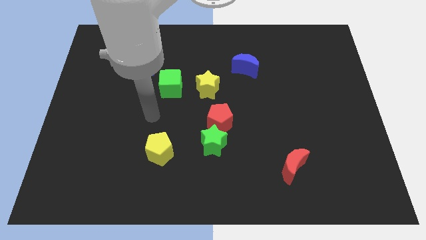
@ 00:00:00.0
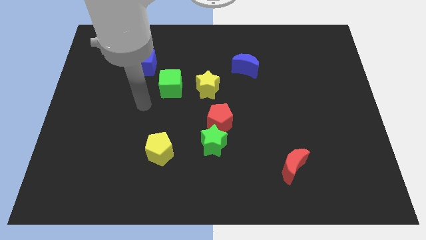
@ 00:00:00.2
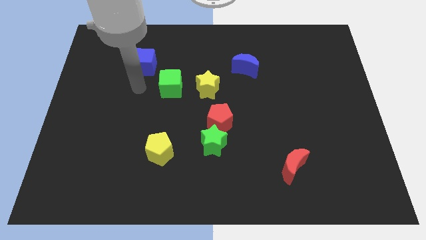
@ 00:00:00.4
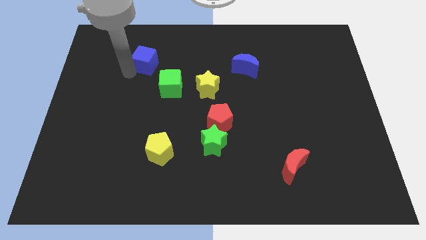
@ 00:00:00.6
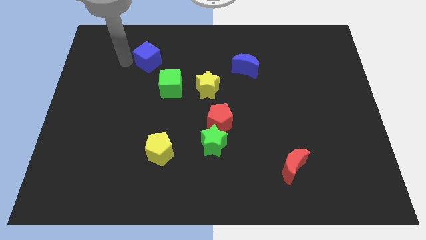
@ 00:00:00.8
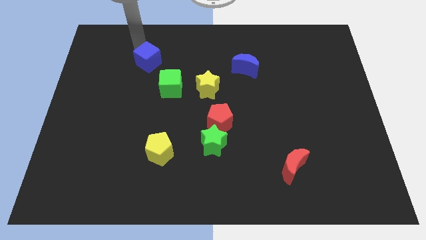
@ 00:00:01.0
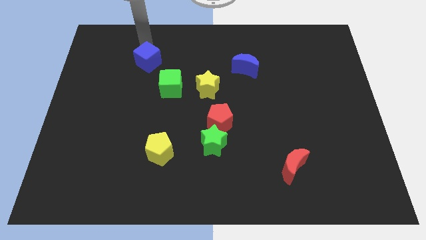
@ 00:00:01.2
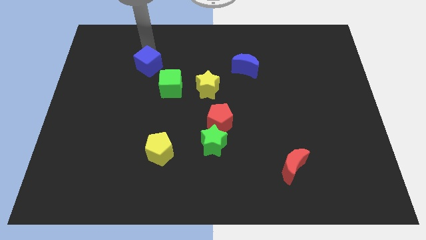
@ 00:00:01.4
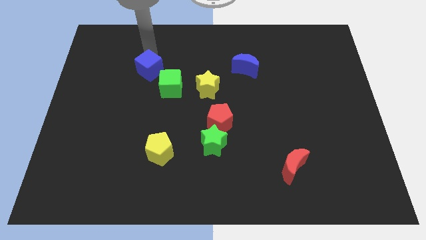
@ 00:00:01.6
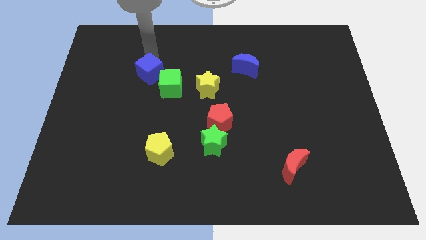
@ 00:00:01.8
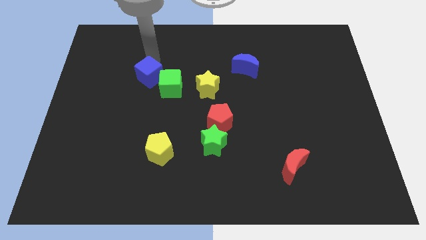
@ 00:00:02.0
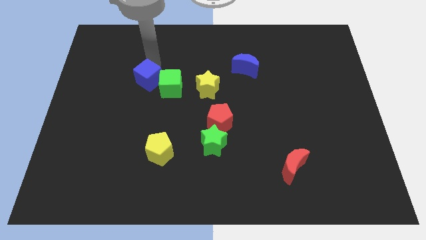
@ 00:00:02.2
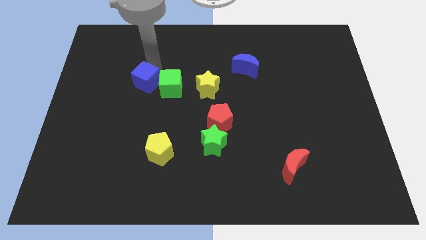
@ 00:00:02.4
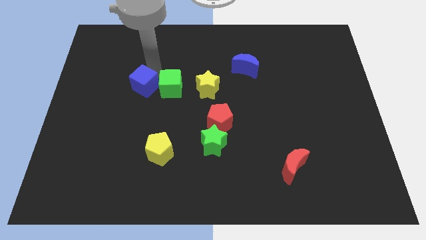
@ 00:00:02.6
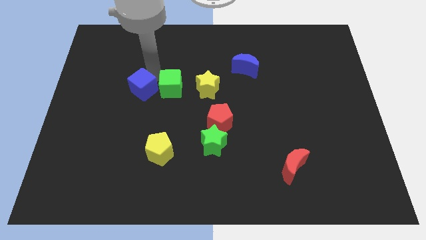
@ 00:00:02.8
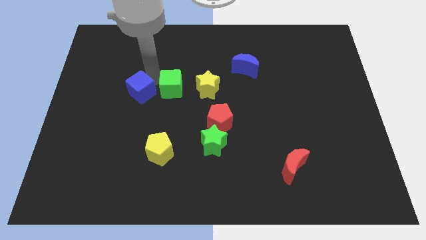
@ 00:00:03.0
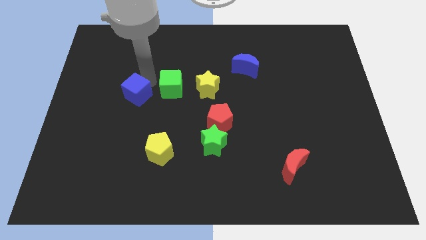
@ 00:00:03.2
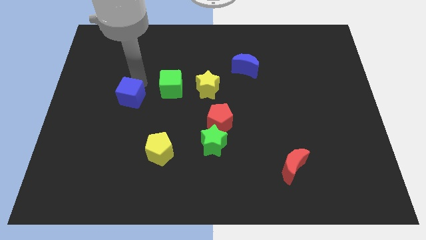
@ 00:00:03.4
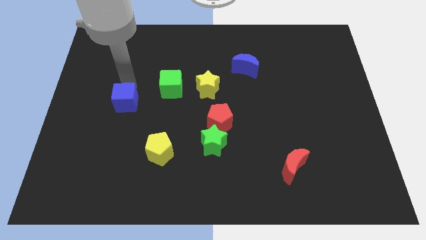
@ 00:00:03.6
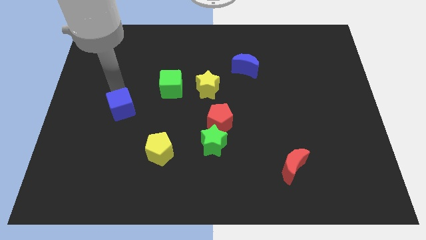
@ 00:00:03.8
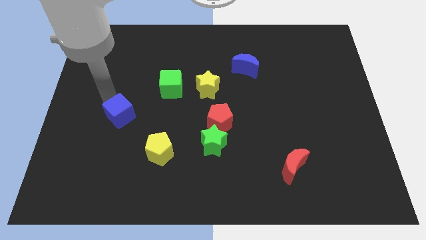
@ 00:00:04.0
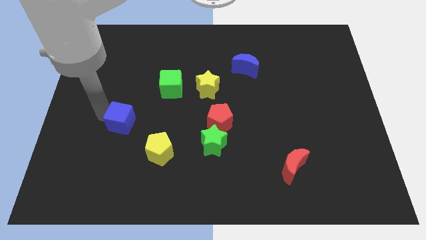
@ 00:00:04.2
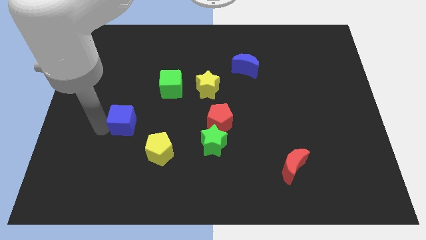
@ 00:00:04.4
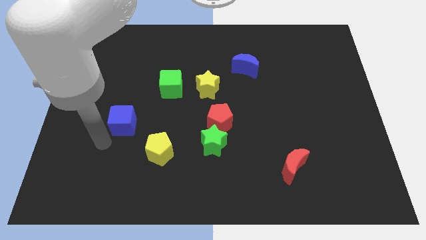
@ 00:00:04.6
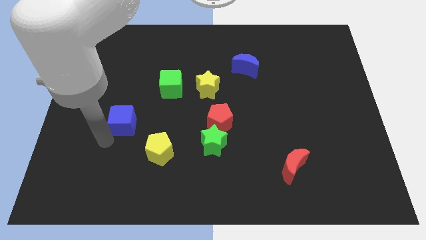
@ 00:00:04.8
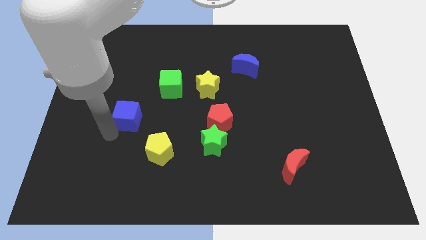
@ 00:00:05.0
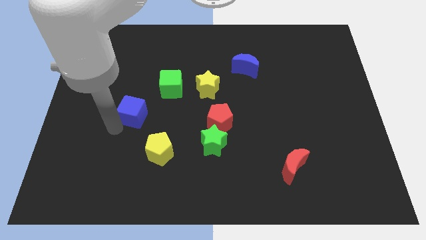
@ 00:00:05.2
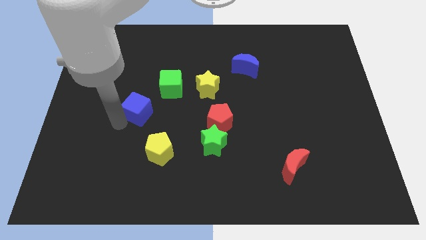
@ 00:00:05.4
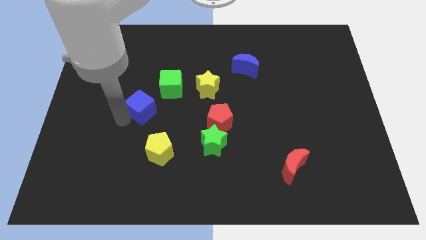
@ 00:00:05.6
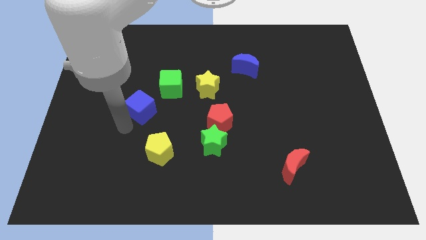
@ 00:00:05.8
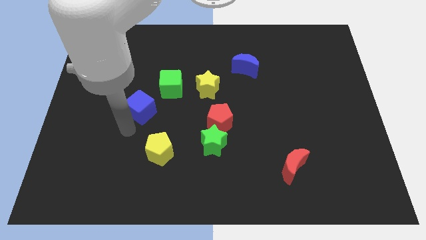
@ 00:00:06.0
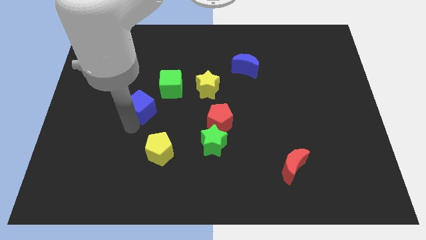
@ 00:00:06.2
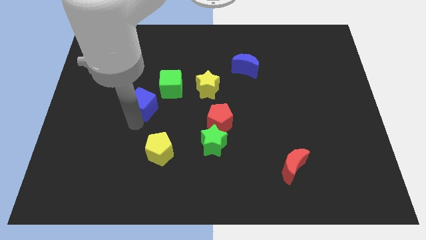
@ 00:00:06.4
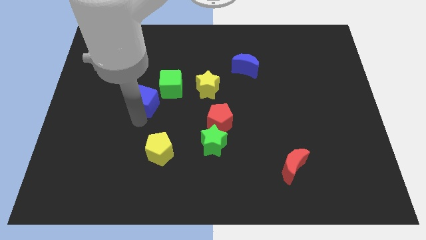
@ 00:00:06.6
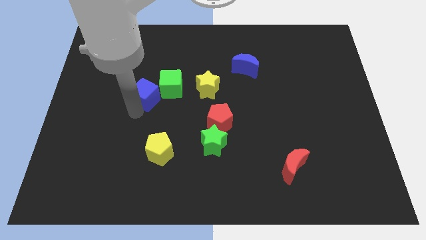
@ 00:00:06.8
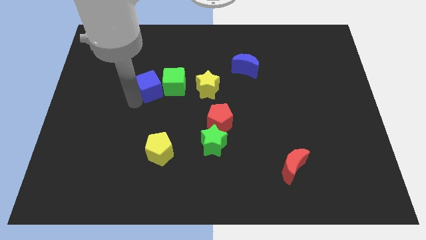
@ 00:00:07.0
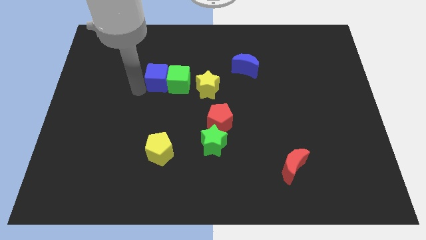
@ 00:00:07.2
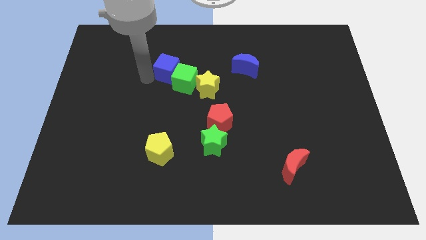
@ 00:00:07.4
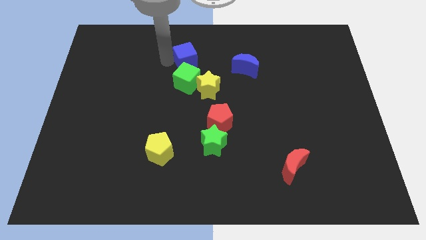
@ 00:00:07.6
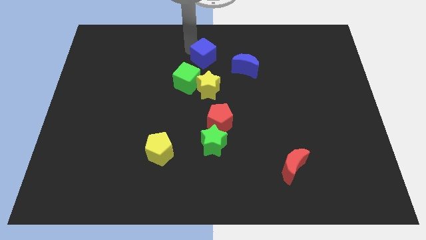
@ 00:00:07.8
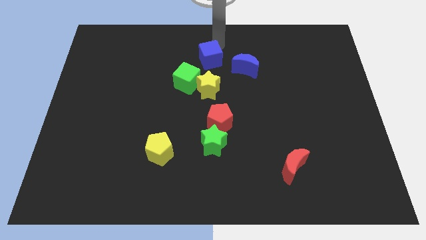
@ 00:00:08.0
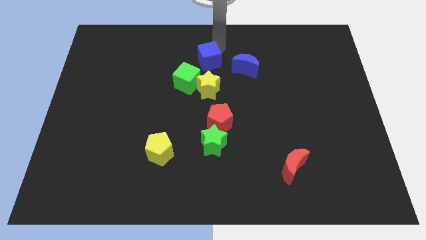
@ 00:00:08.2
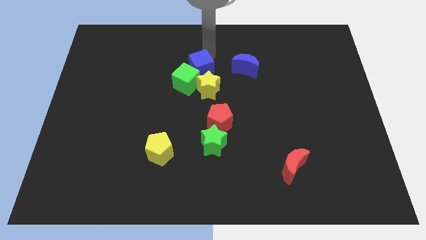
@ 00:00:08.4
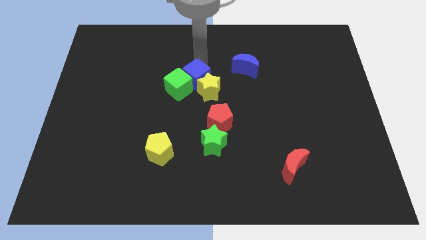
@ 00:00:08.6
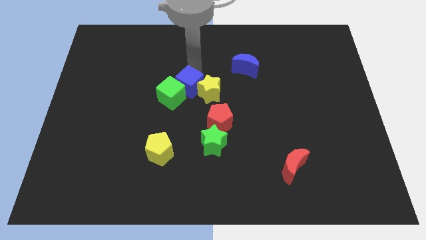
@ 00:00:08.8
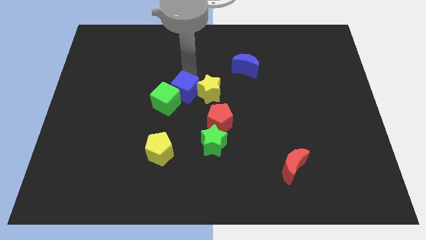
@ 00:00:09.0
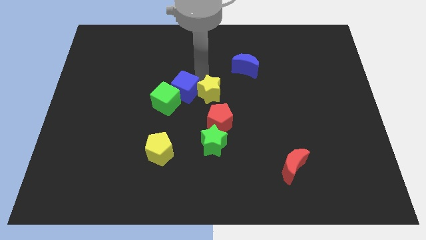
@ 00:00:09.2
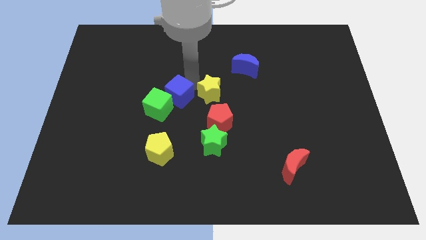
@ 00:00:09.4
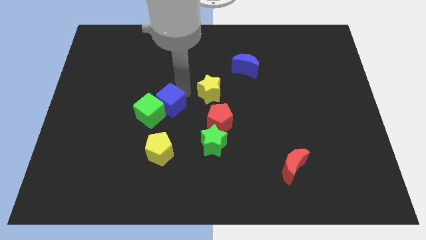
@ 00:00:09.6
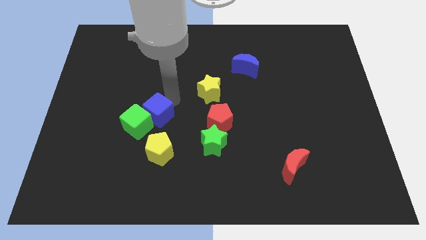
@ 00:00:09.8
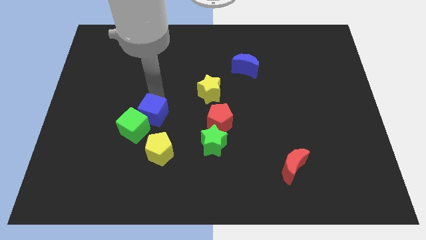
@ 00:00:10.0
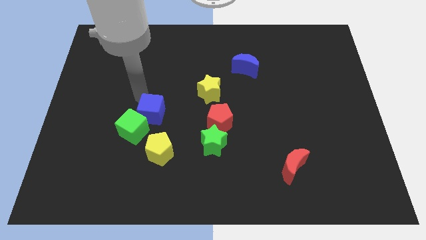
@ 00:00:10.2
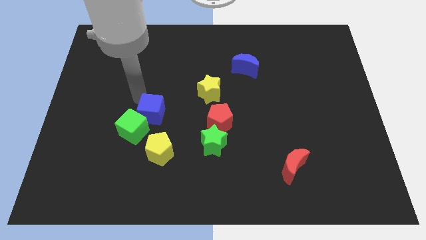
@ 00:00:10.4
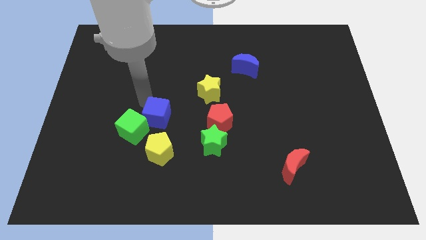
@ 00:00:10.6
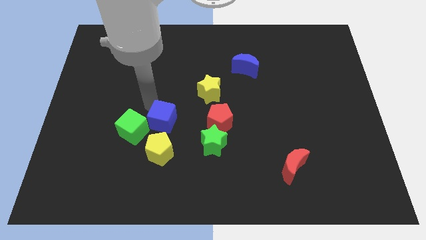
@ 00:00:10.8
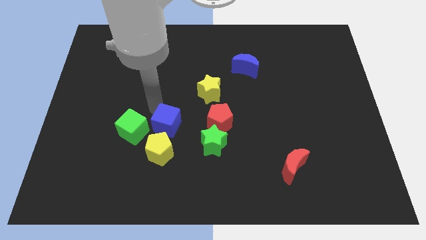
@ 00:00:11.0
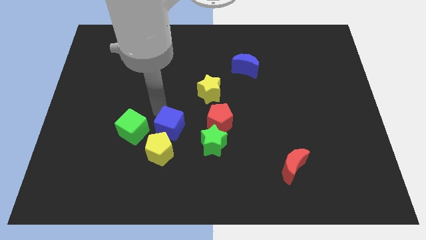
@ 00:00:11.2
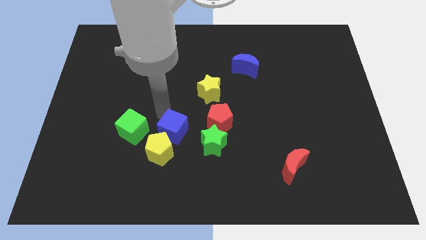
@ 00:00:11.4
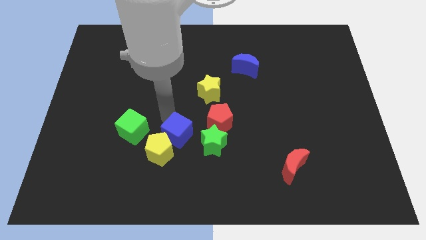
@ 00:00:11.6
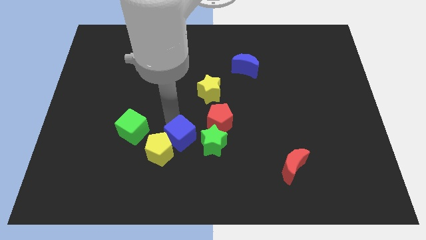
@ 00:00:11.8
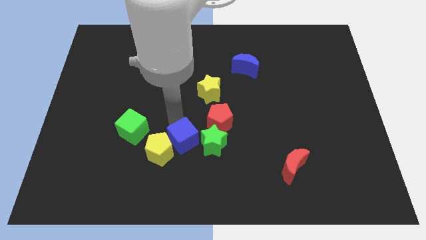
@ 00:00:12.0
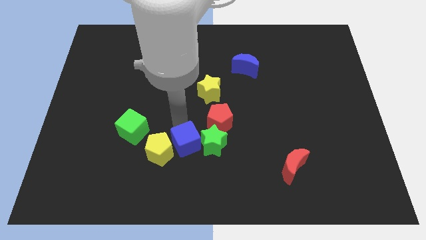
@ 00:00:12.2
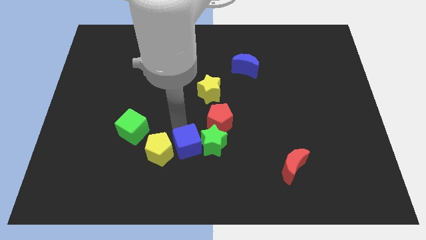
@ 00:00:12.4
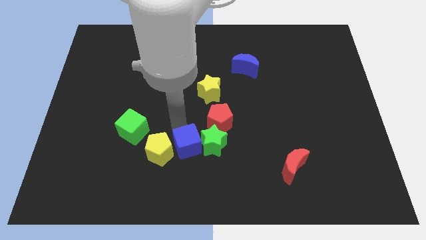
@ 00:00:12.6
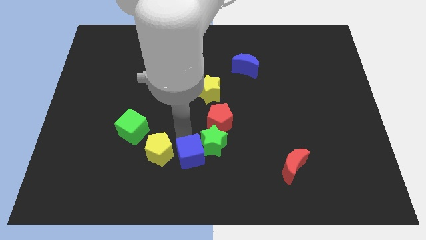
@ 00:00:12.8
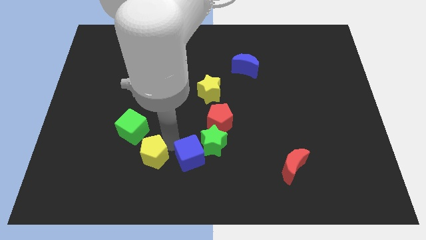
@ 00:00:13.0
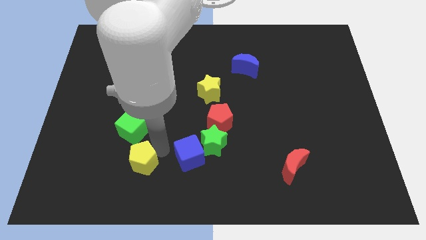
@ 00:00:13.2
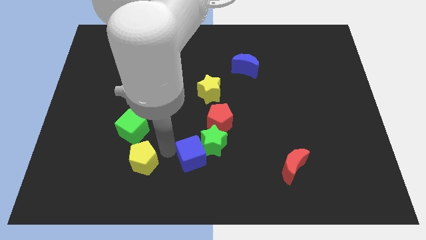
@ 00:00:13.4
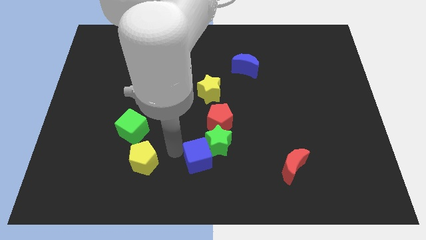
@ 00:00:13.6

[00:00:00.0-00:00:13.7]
push the blue cube below the red pentagon

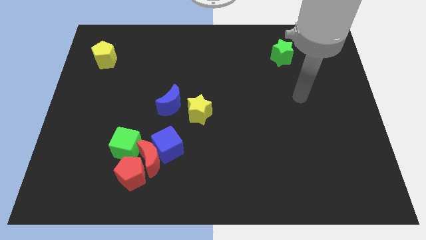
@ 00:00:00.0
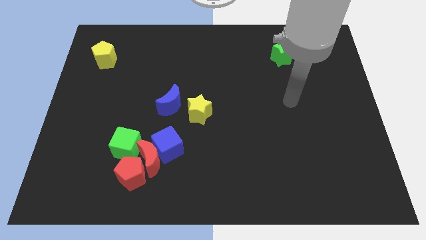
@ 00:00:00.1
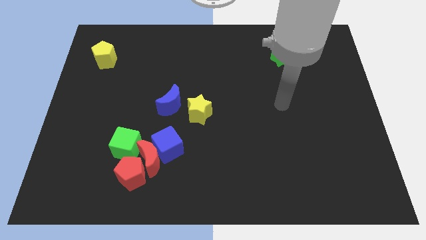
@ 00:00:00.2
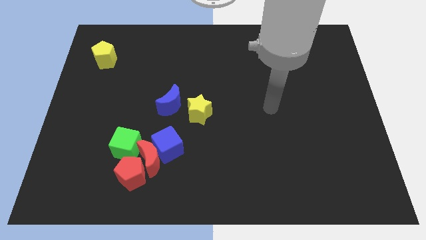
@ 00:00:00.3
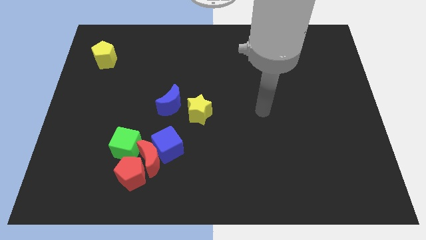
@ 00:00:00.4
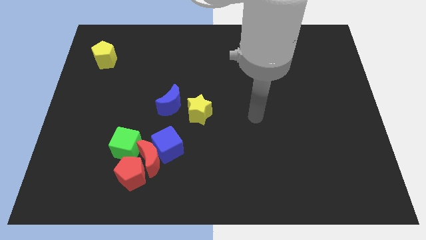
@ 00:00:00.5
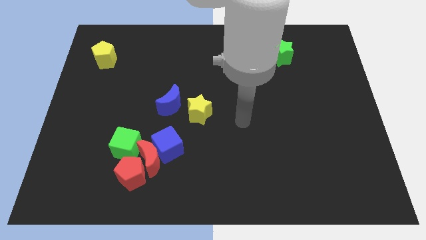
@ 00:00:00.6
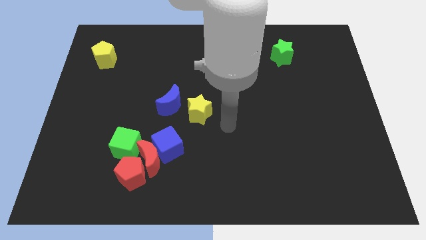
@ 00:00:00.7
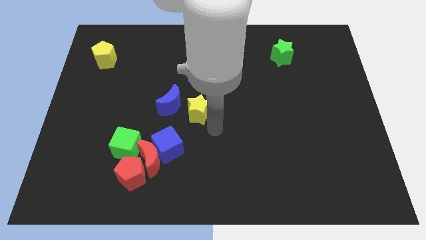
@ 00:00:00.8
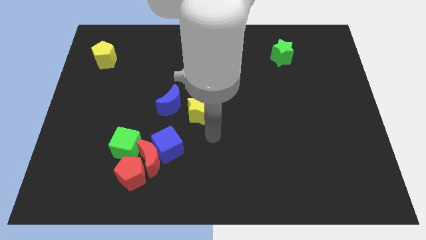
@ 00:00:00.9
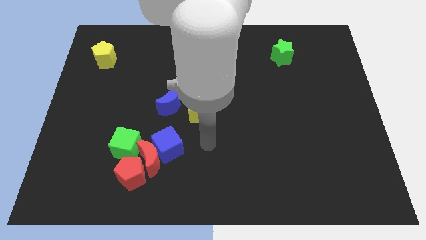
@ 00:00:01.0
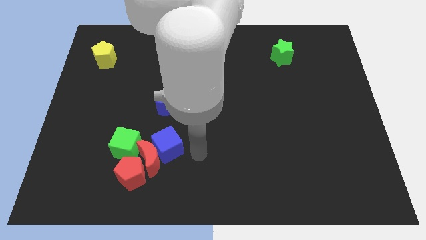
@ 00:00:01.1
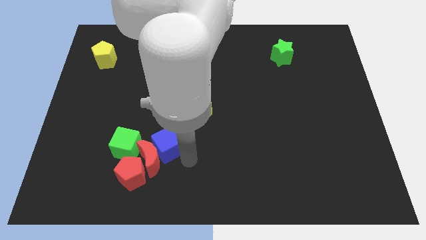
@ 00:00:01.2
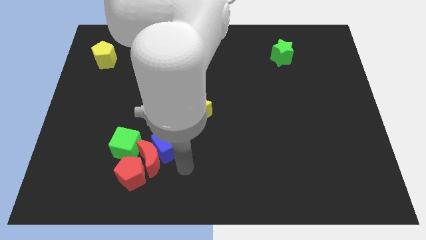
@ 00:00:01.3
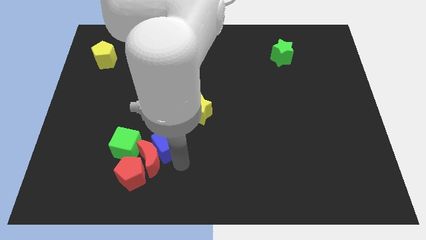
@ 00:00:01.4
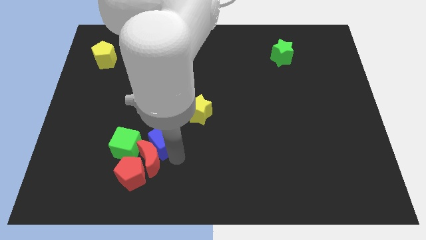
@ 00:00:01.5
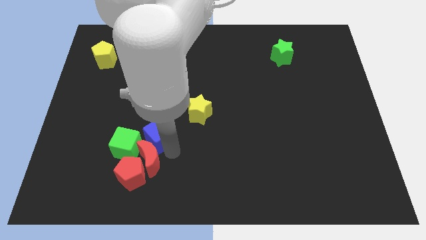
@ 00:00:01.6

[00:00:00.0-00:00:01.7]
move the blue cube diagonally up and to the right of the green cube
